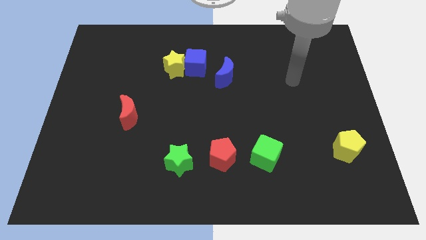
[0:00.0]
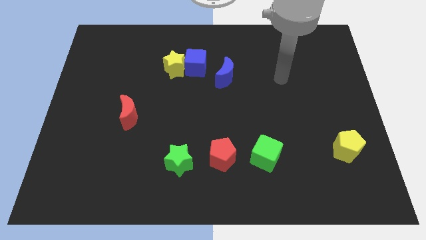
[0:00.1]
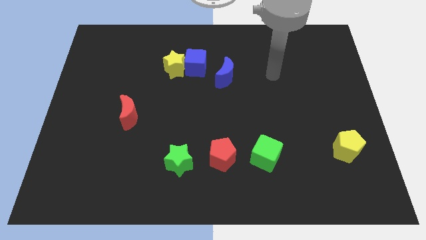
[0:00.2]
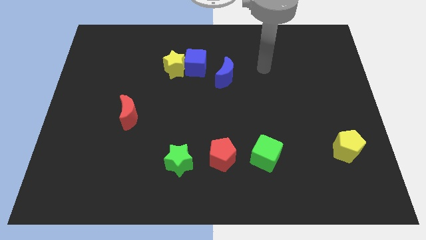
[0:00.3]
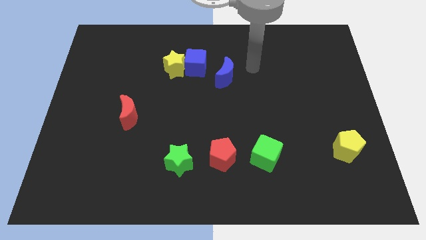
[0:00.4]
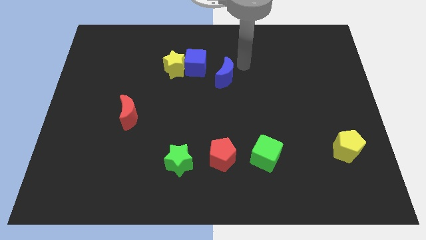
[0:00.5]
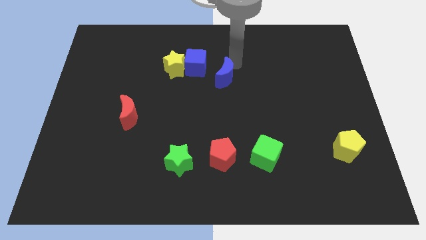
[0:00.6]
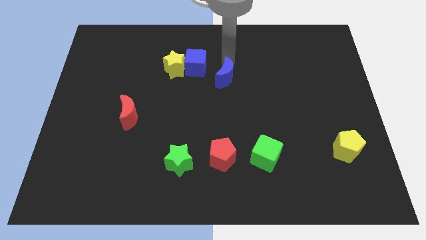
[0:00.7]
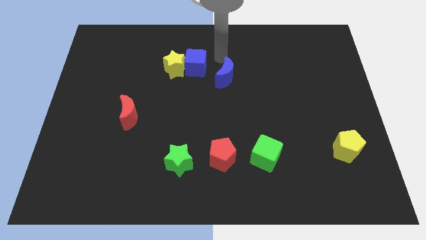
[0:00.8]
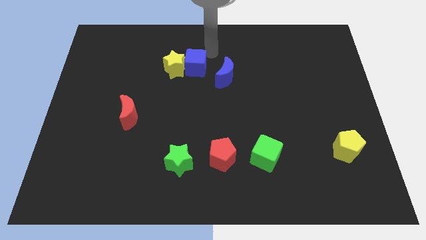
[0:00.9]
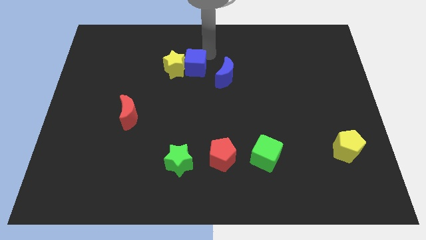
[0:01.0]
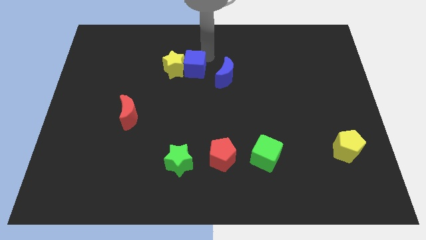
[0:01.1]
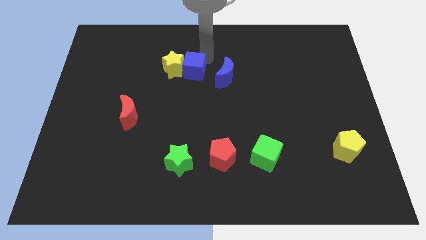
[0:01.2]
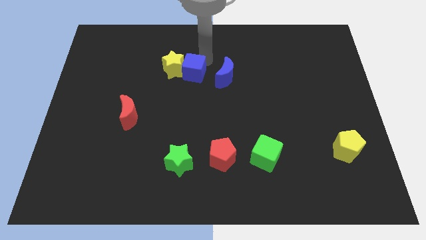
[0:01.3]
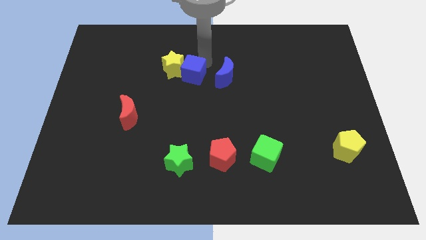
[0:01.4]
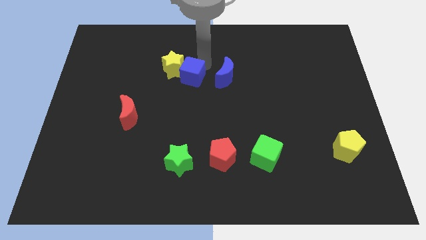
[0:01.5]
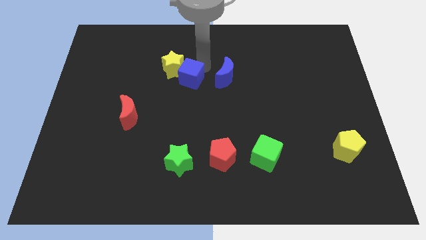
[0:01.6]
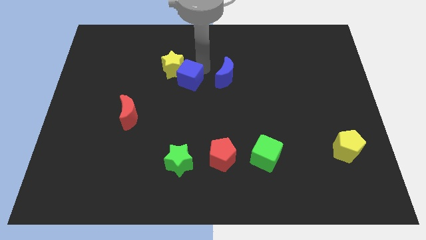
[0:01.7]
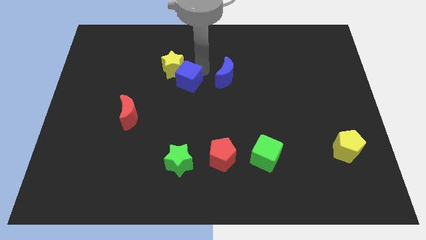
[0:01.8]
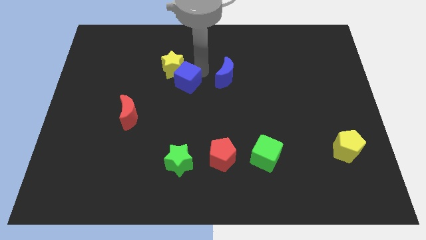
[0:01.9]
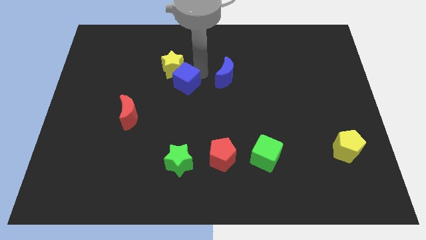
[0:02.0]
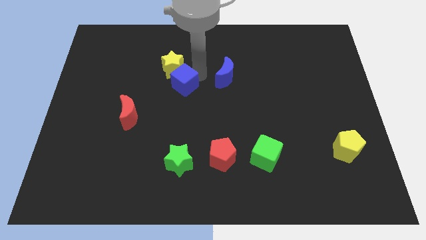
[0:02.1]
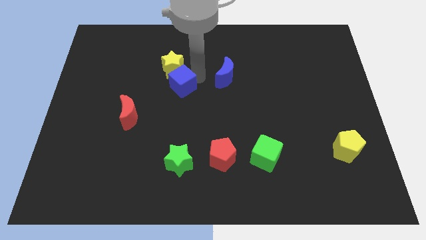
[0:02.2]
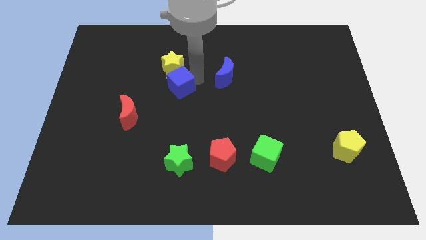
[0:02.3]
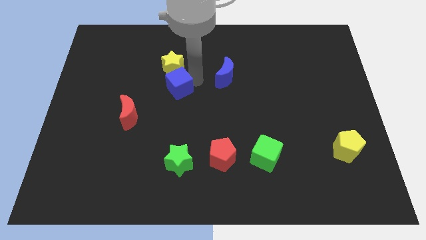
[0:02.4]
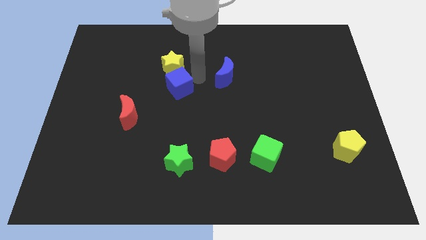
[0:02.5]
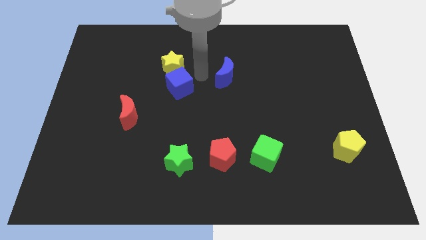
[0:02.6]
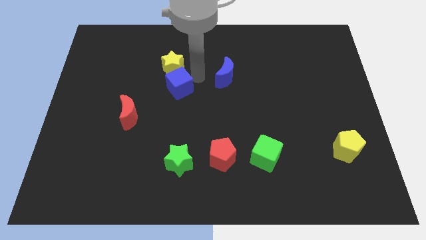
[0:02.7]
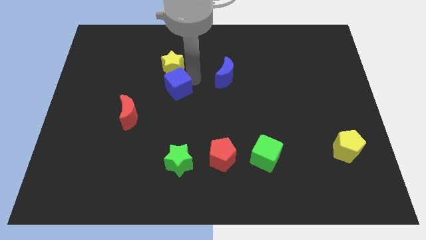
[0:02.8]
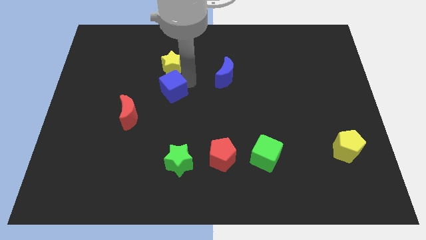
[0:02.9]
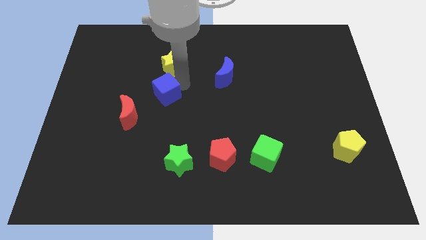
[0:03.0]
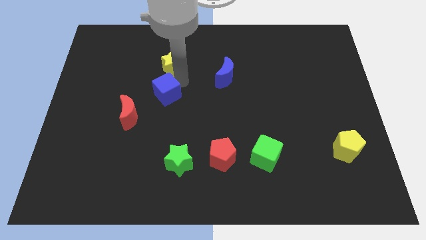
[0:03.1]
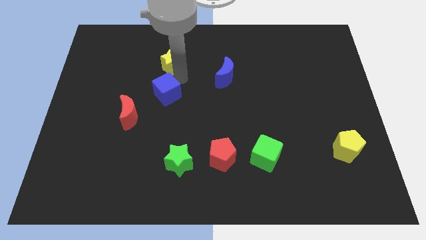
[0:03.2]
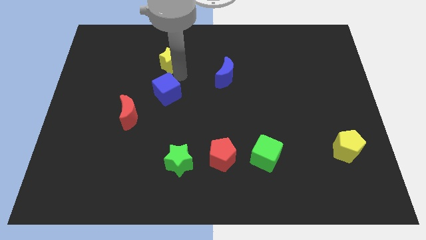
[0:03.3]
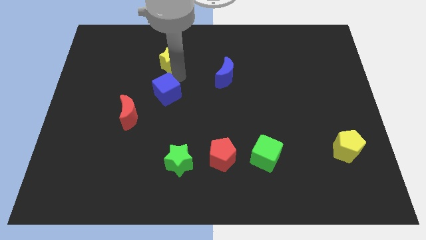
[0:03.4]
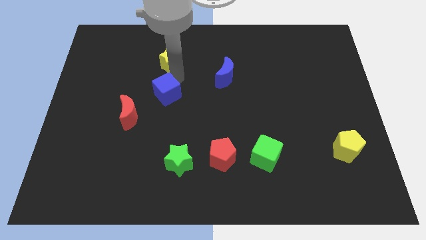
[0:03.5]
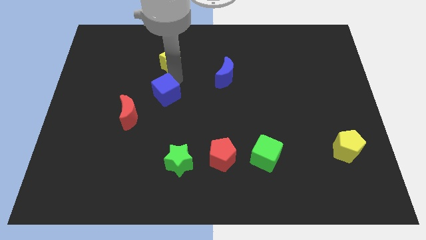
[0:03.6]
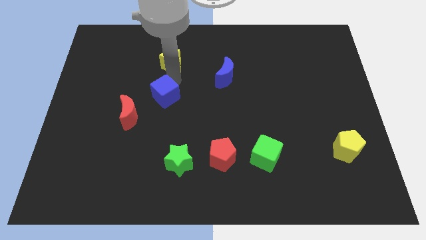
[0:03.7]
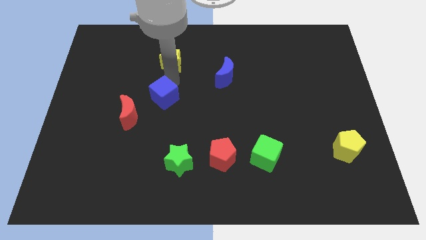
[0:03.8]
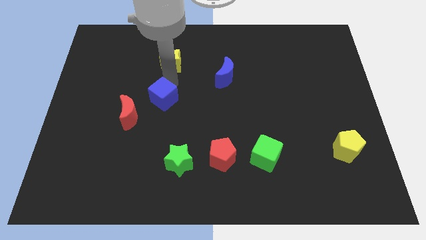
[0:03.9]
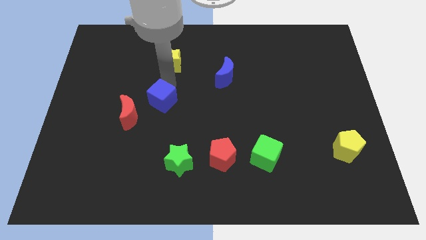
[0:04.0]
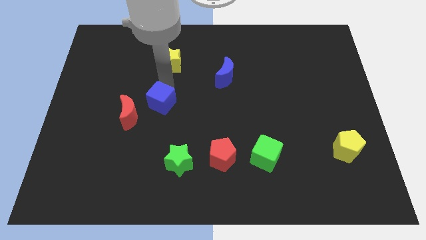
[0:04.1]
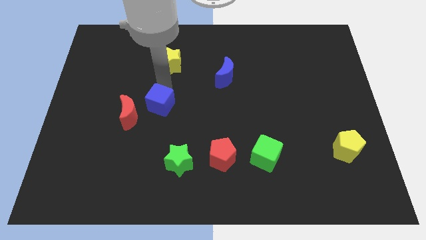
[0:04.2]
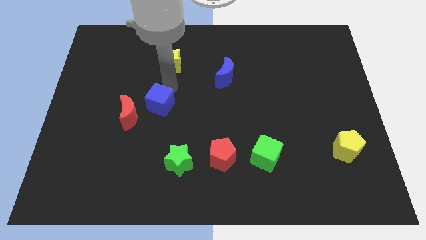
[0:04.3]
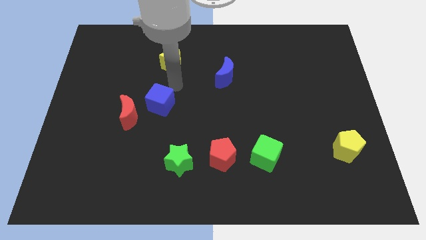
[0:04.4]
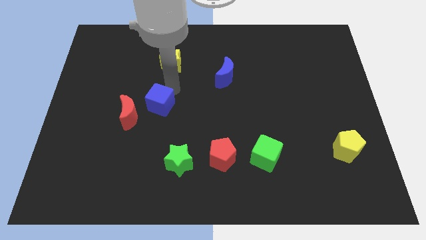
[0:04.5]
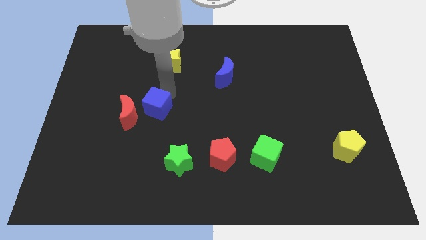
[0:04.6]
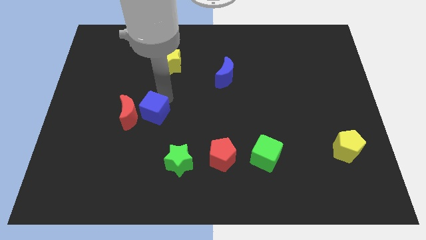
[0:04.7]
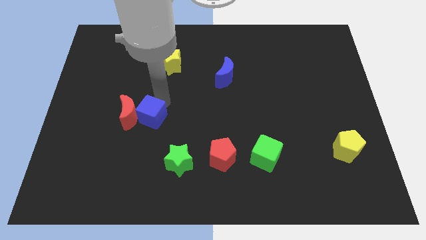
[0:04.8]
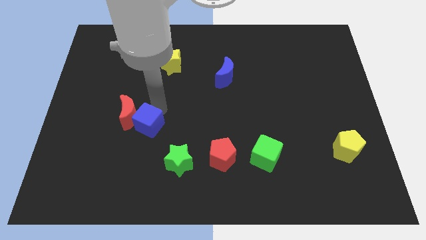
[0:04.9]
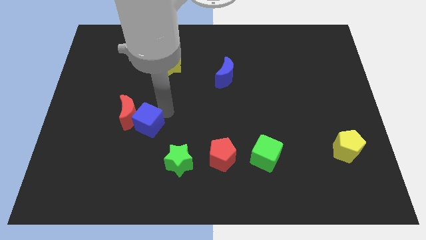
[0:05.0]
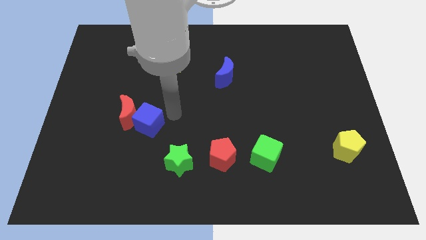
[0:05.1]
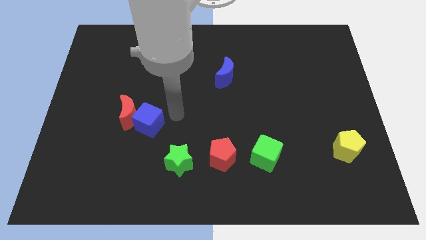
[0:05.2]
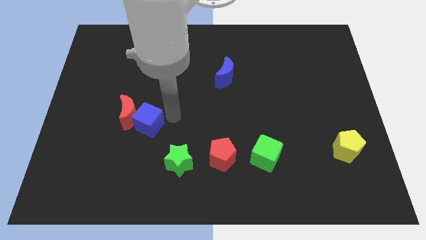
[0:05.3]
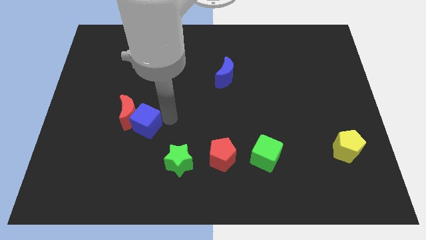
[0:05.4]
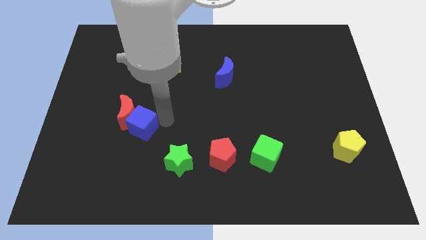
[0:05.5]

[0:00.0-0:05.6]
push the blue cube down and to the left

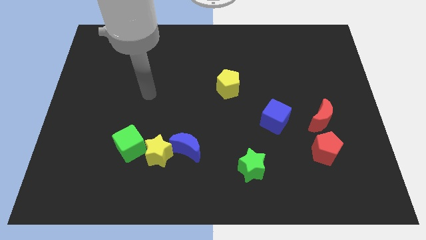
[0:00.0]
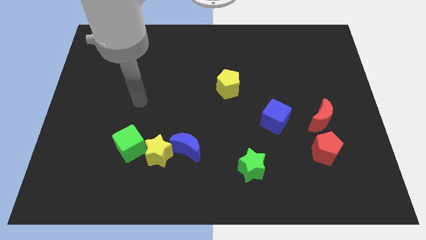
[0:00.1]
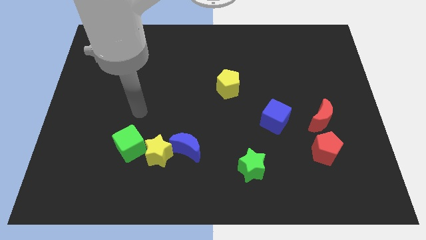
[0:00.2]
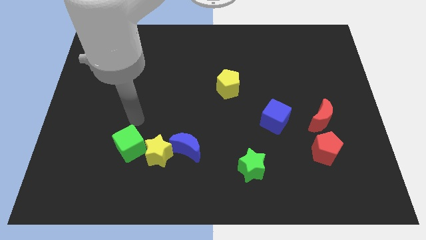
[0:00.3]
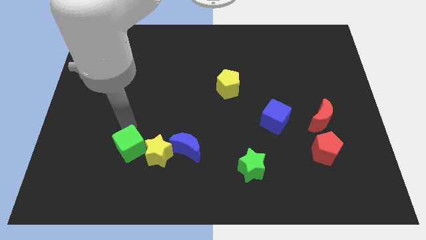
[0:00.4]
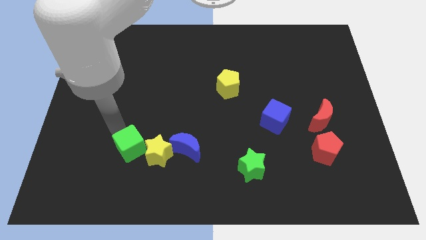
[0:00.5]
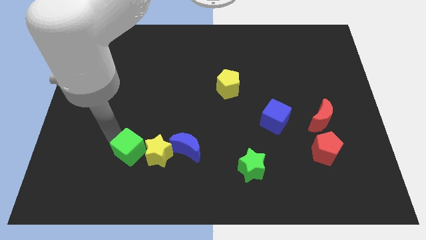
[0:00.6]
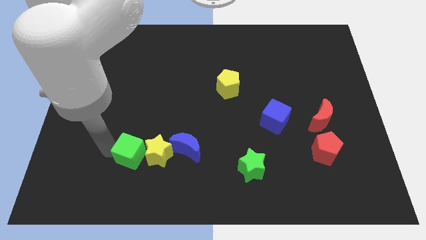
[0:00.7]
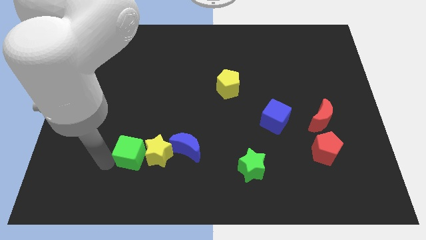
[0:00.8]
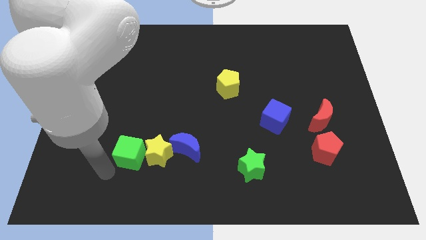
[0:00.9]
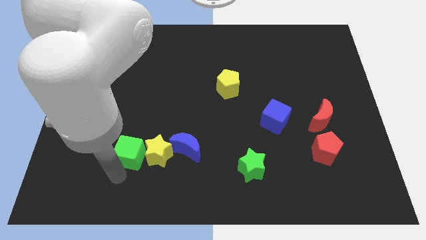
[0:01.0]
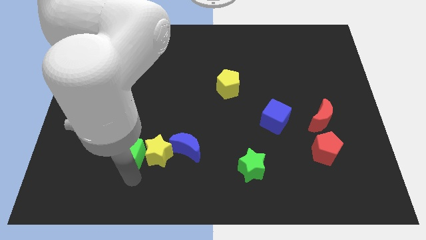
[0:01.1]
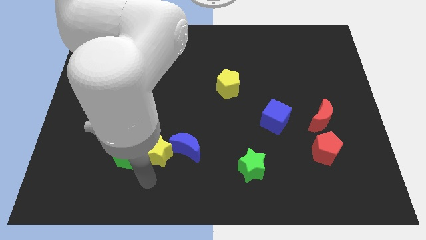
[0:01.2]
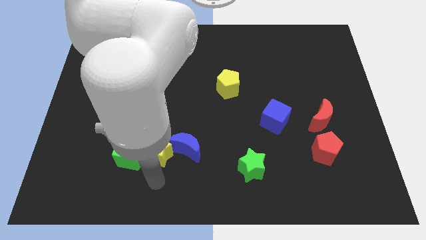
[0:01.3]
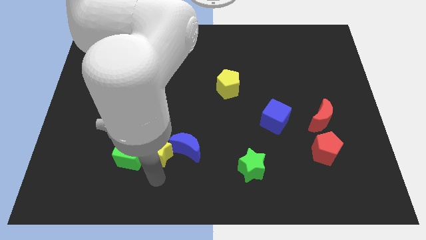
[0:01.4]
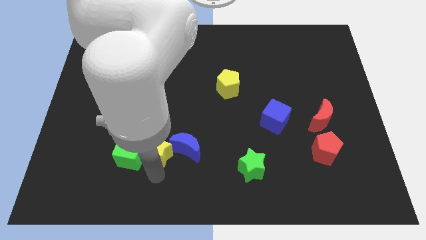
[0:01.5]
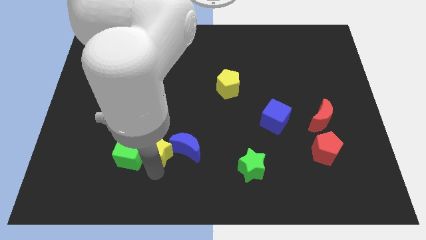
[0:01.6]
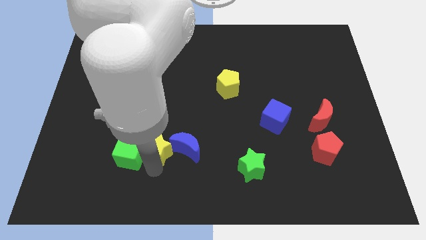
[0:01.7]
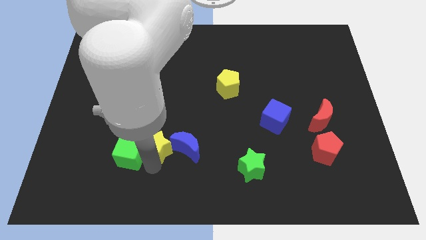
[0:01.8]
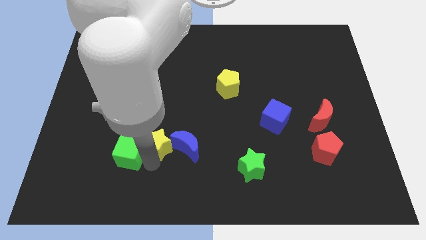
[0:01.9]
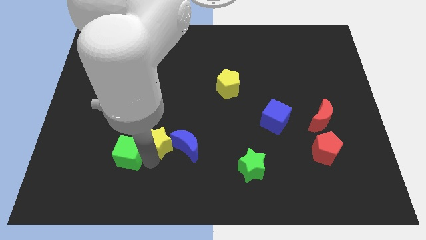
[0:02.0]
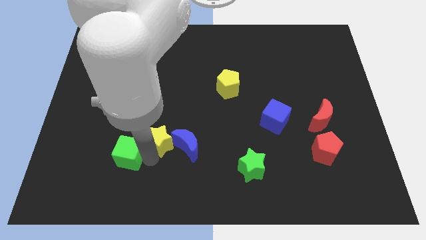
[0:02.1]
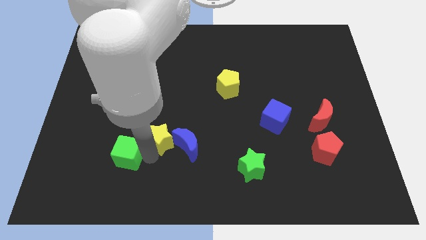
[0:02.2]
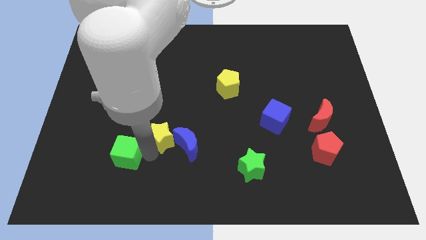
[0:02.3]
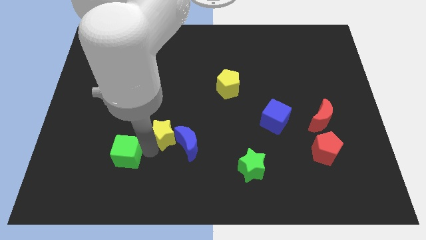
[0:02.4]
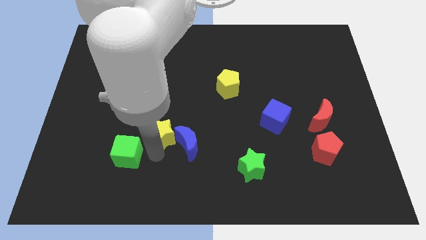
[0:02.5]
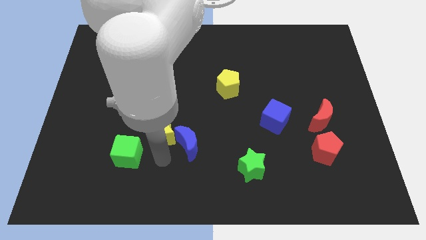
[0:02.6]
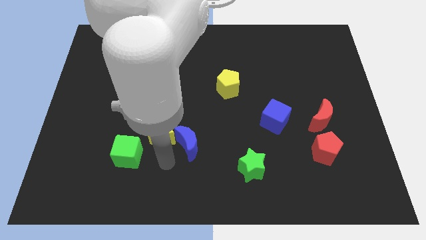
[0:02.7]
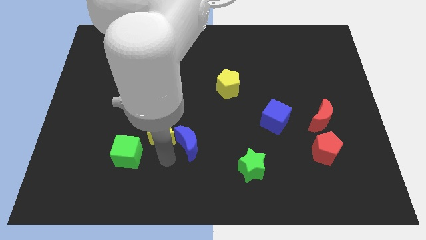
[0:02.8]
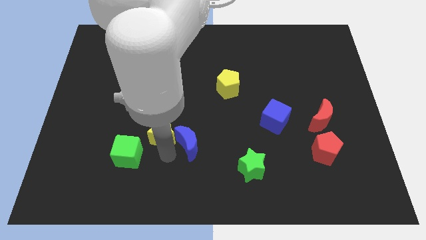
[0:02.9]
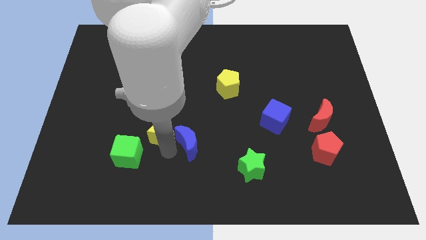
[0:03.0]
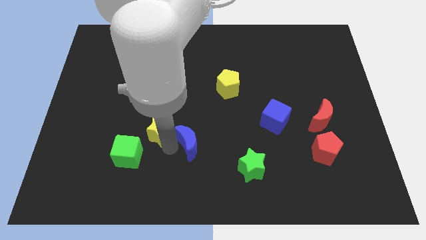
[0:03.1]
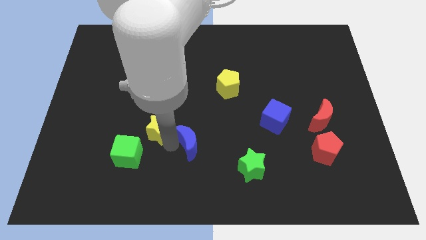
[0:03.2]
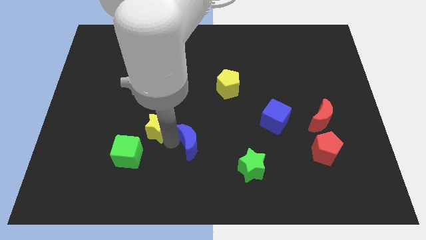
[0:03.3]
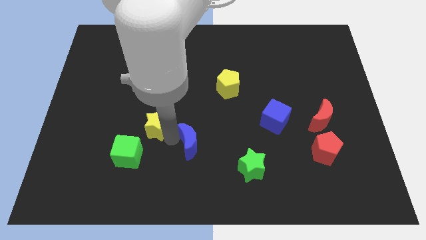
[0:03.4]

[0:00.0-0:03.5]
move the yellow star somewhat upwards
